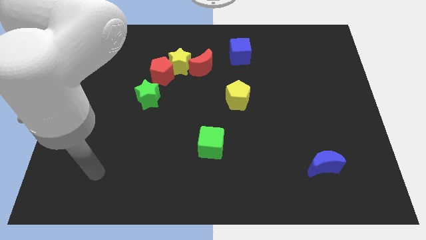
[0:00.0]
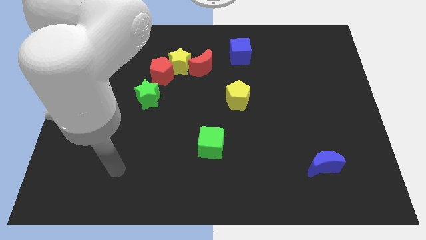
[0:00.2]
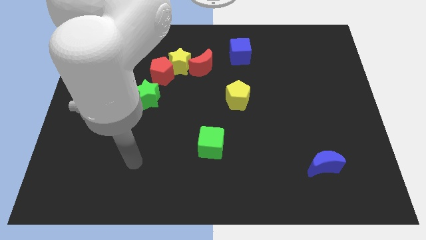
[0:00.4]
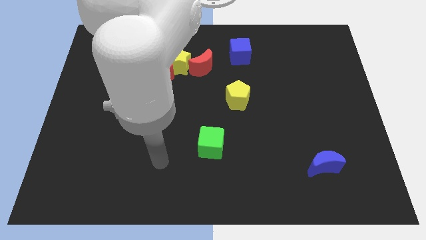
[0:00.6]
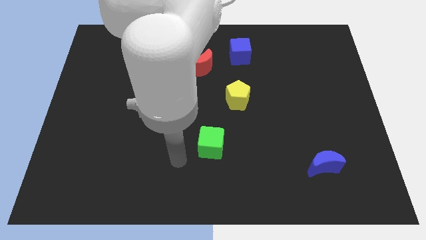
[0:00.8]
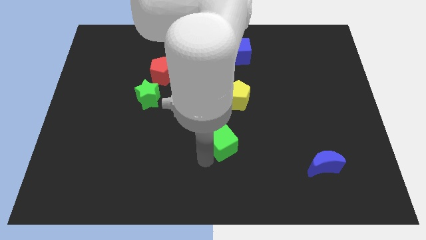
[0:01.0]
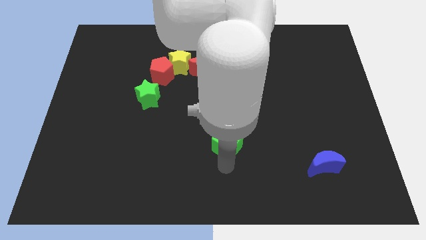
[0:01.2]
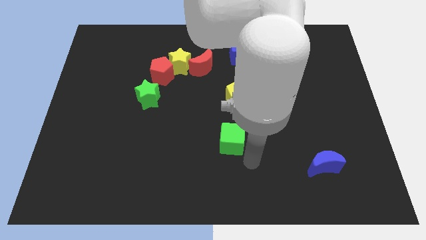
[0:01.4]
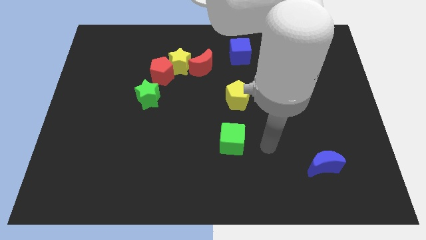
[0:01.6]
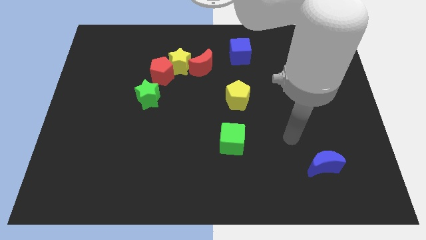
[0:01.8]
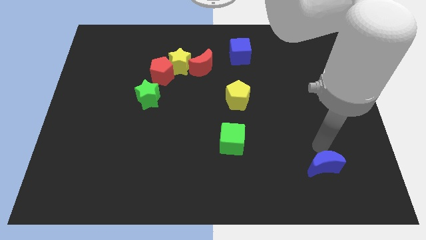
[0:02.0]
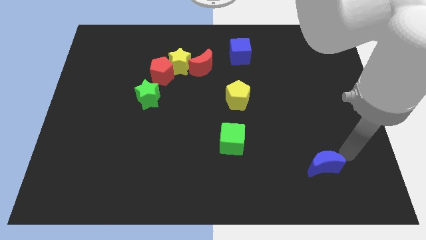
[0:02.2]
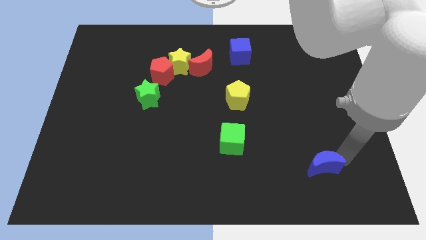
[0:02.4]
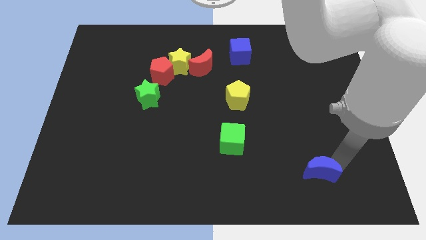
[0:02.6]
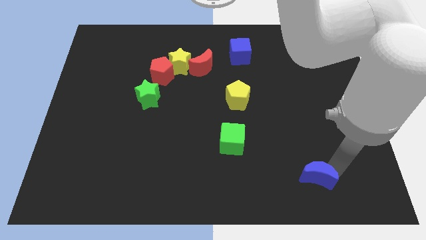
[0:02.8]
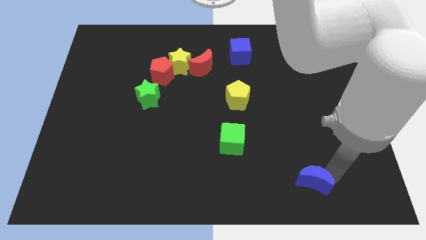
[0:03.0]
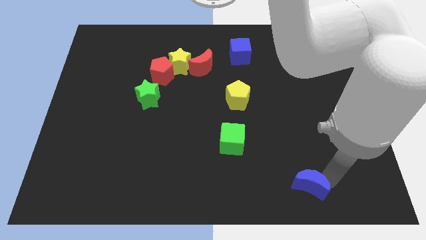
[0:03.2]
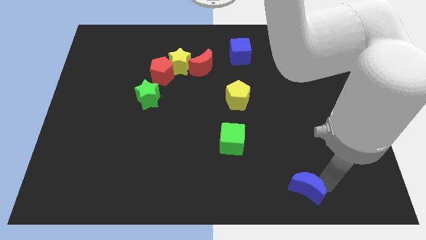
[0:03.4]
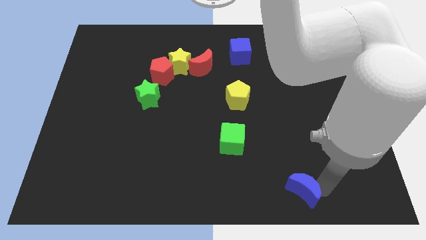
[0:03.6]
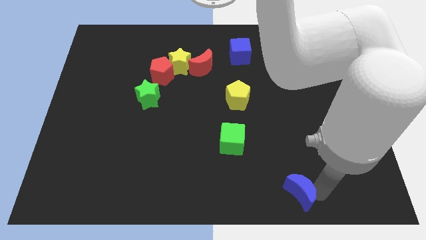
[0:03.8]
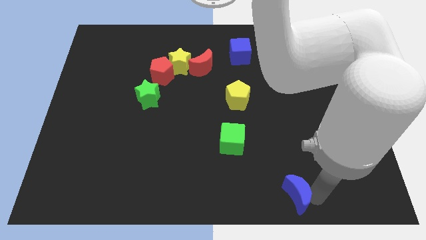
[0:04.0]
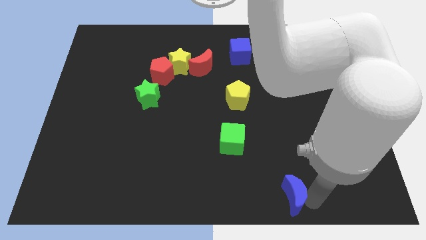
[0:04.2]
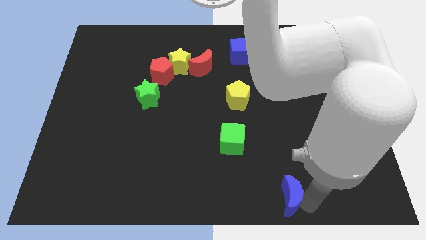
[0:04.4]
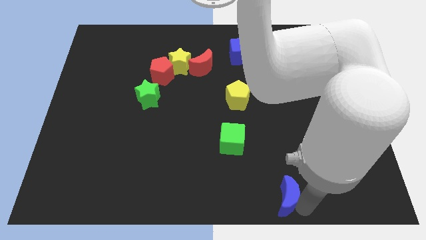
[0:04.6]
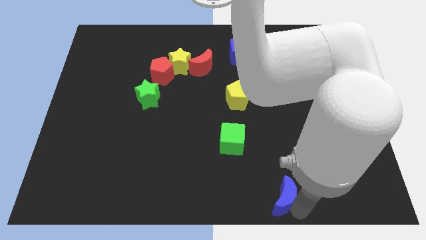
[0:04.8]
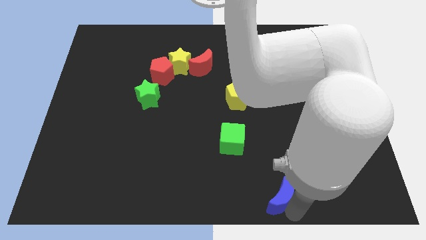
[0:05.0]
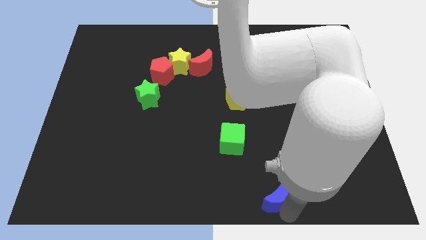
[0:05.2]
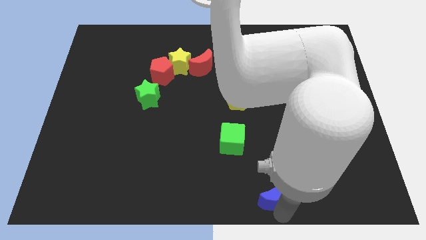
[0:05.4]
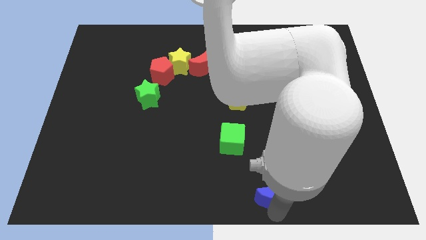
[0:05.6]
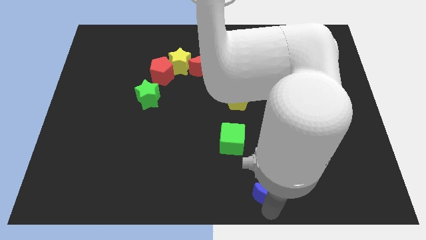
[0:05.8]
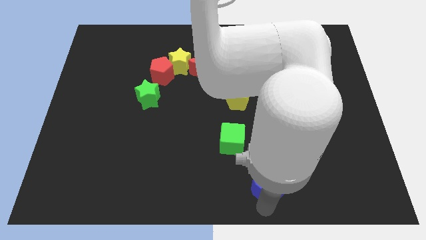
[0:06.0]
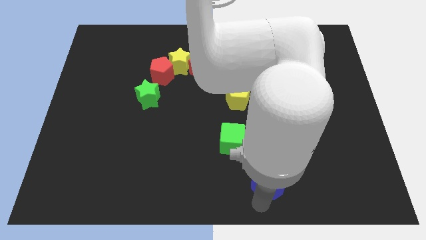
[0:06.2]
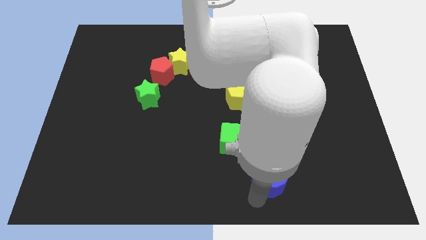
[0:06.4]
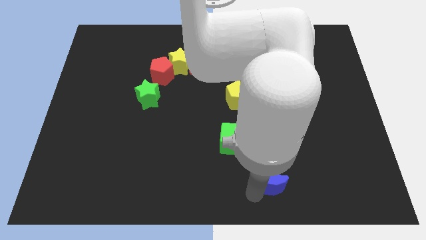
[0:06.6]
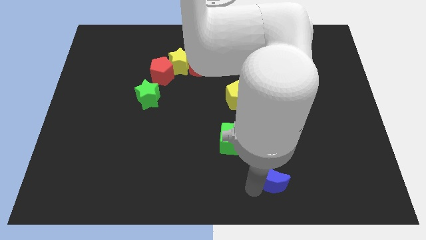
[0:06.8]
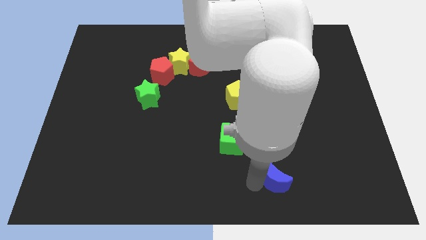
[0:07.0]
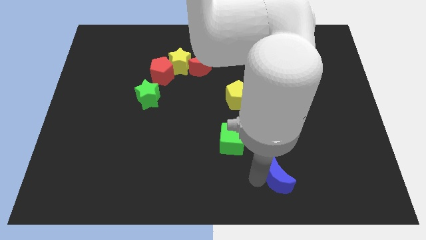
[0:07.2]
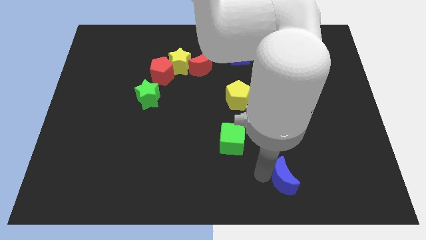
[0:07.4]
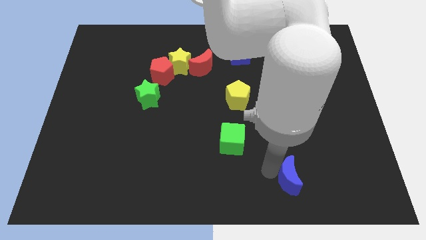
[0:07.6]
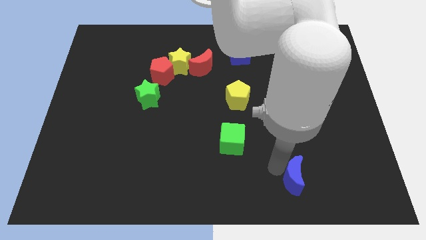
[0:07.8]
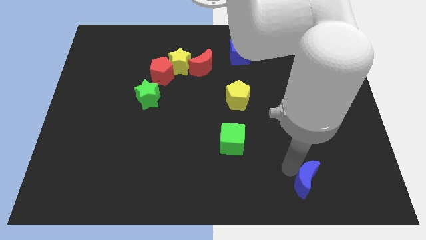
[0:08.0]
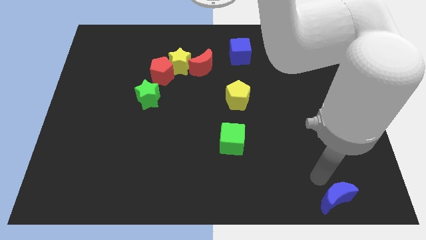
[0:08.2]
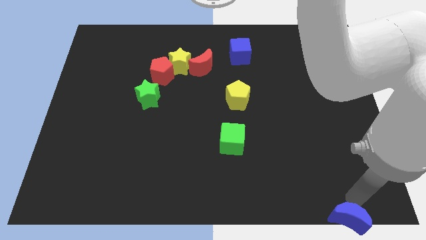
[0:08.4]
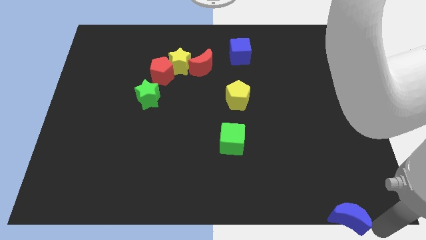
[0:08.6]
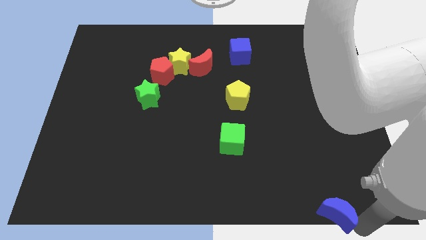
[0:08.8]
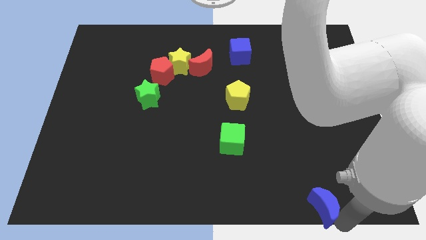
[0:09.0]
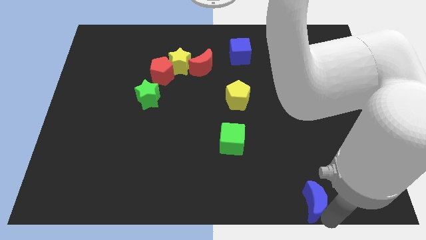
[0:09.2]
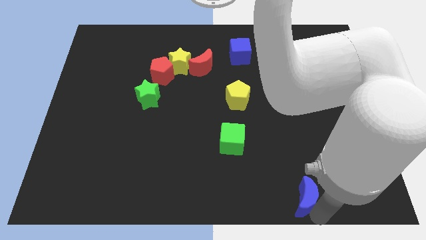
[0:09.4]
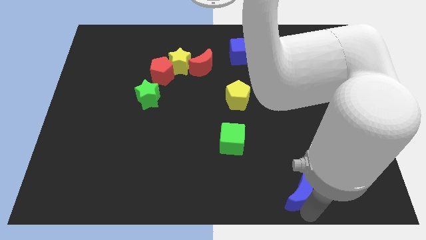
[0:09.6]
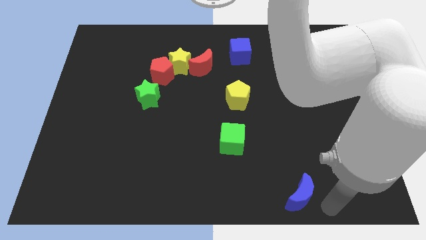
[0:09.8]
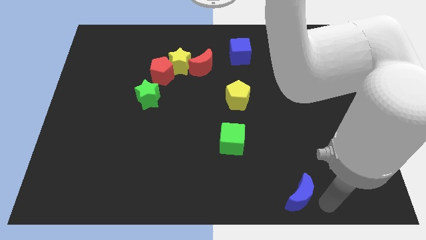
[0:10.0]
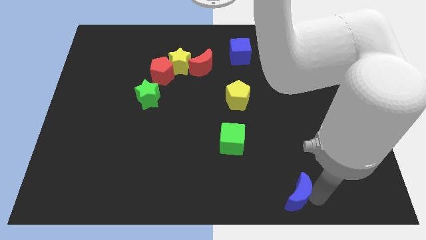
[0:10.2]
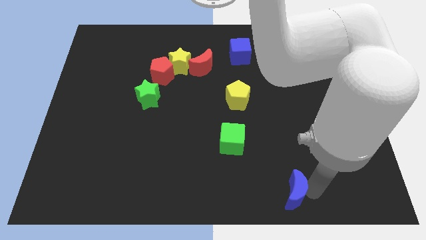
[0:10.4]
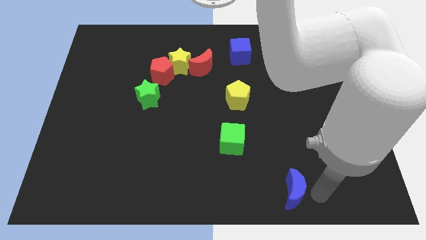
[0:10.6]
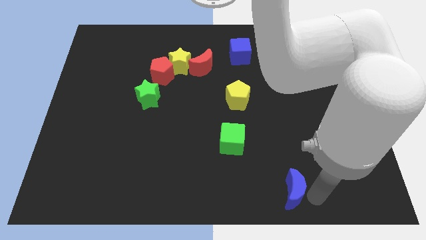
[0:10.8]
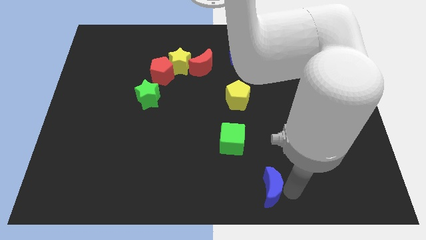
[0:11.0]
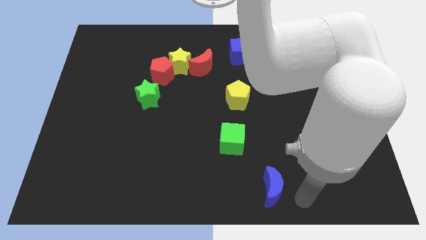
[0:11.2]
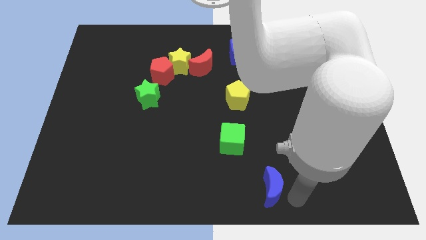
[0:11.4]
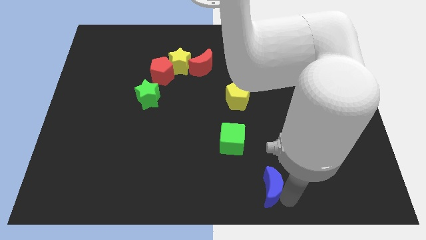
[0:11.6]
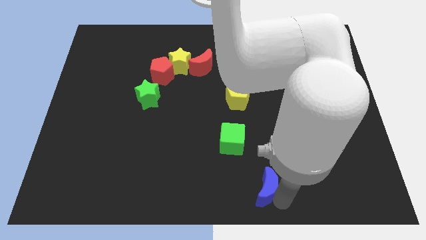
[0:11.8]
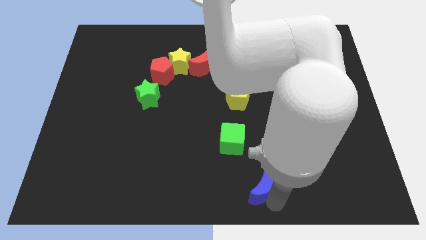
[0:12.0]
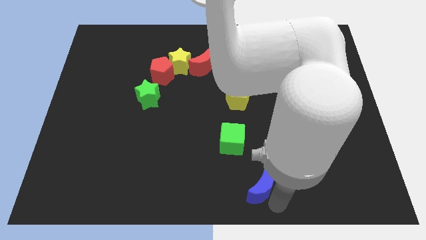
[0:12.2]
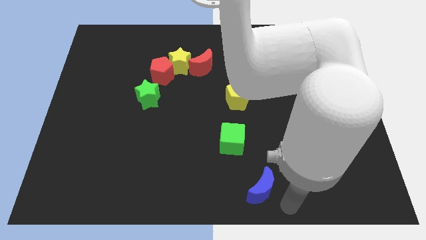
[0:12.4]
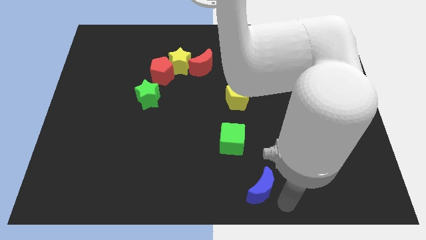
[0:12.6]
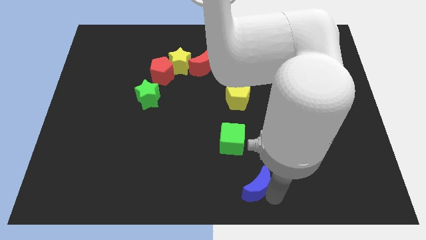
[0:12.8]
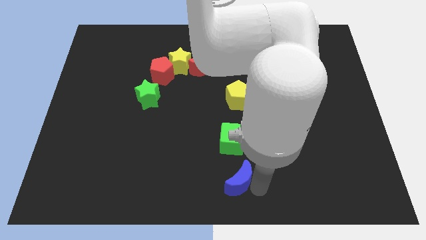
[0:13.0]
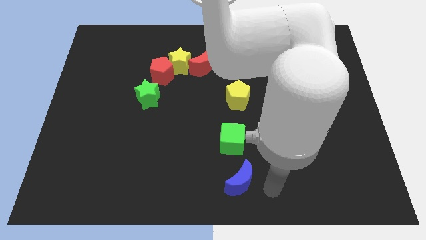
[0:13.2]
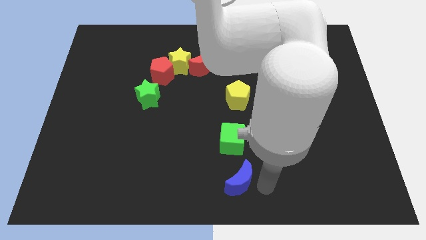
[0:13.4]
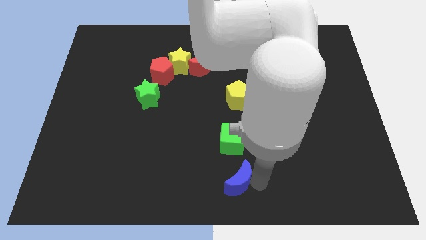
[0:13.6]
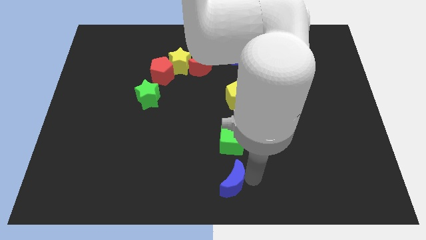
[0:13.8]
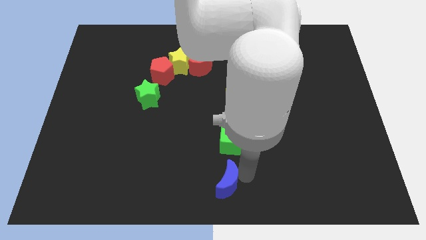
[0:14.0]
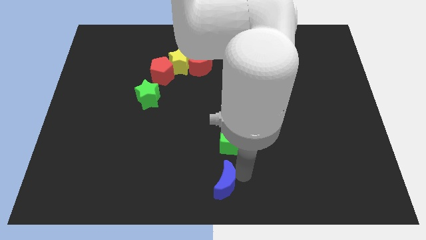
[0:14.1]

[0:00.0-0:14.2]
push the blue moon to the left

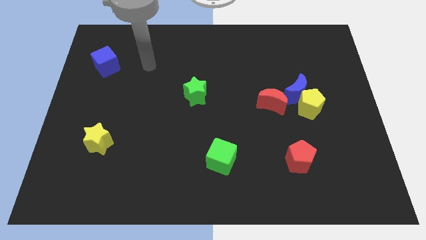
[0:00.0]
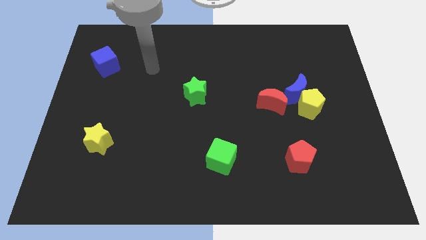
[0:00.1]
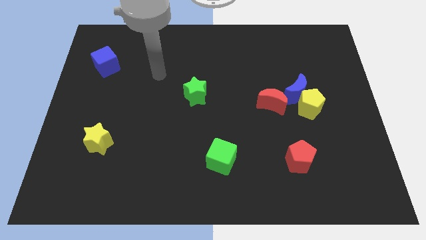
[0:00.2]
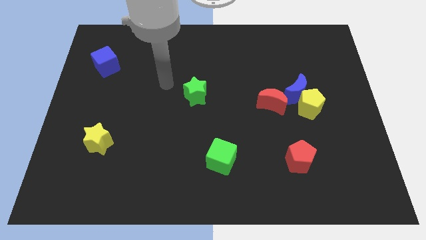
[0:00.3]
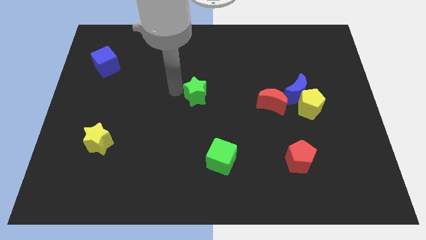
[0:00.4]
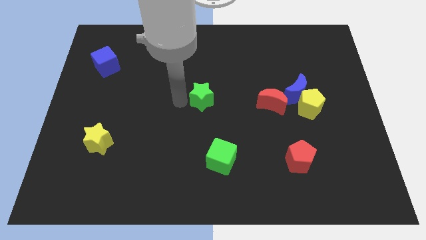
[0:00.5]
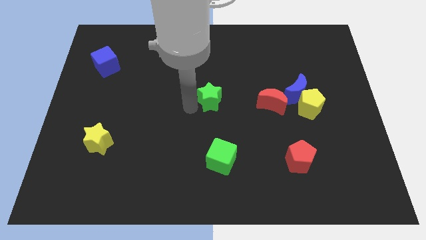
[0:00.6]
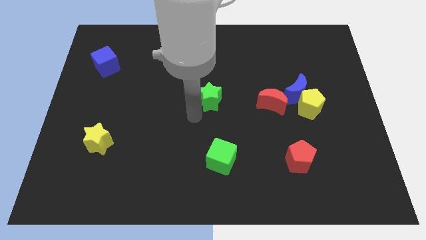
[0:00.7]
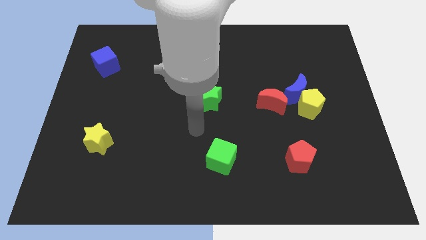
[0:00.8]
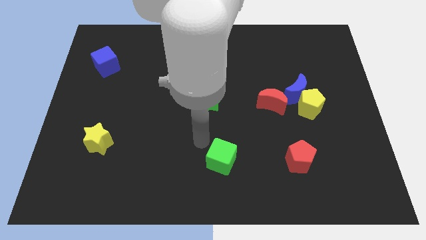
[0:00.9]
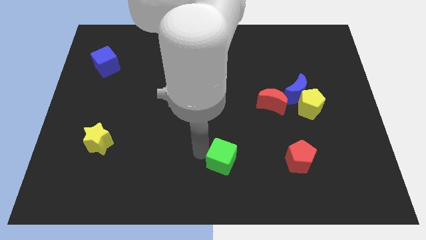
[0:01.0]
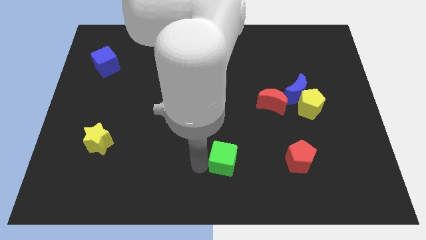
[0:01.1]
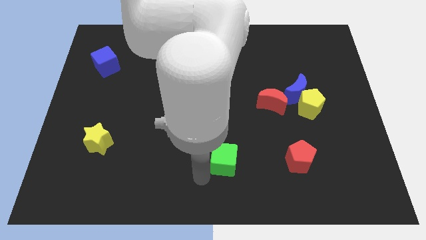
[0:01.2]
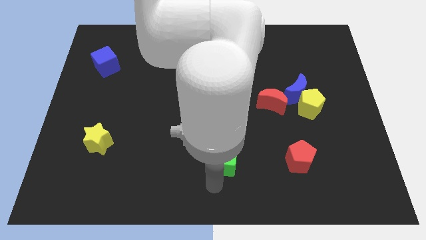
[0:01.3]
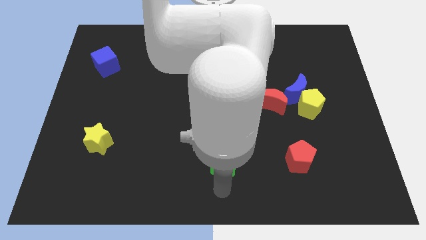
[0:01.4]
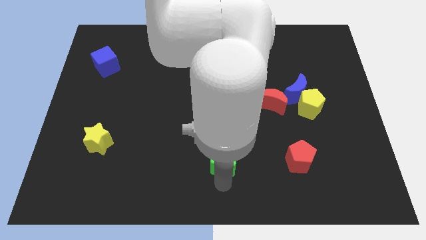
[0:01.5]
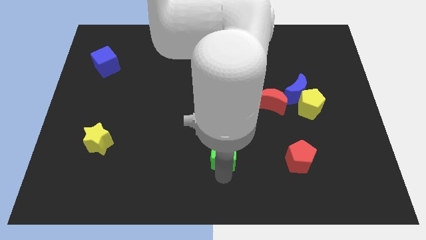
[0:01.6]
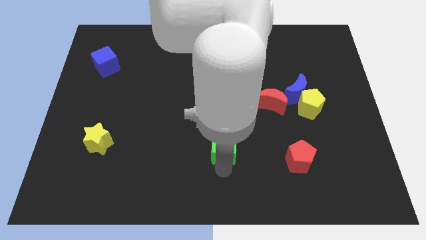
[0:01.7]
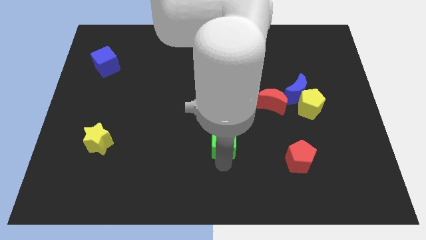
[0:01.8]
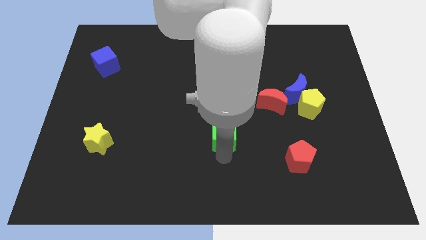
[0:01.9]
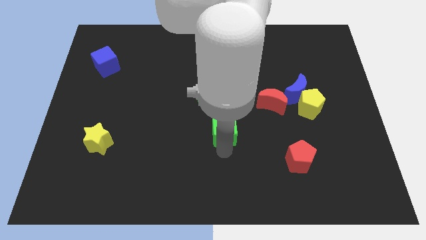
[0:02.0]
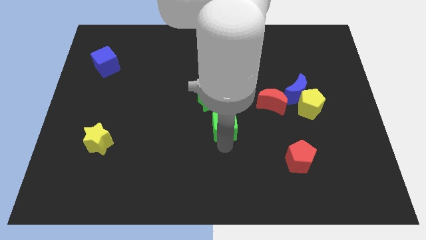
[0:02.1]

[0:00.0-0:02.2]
slide the green cube upwards a bit
